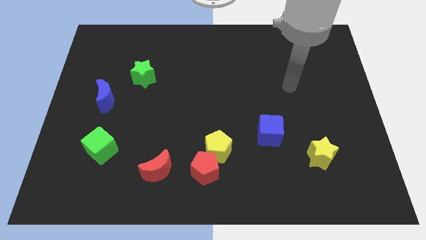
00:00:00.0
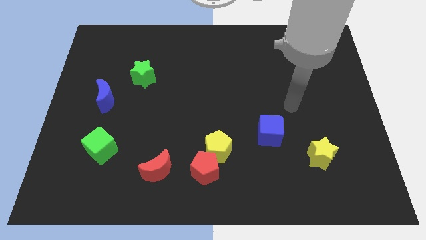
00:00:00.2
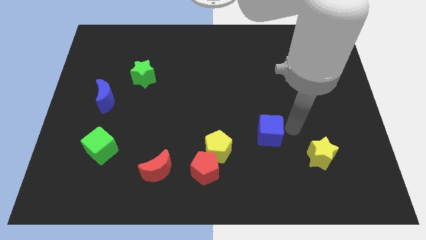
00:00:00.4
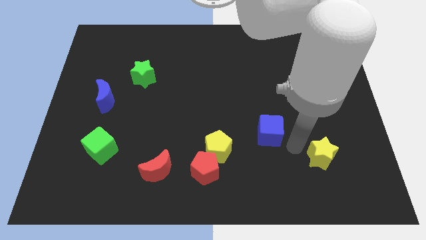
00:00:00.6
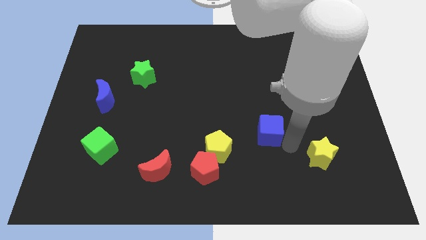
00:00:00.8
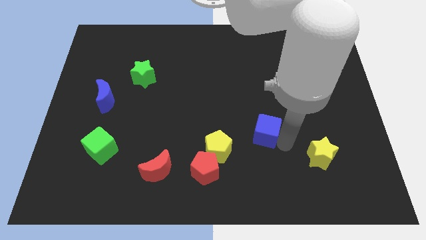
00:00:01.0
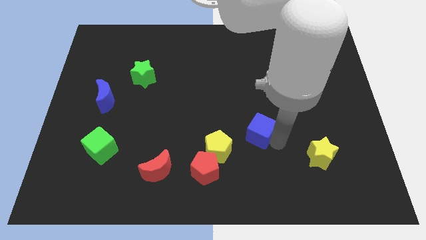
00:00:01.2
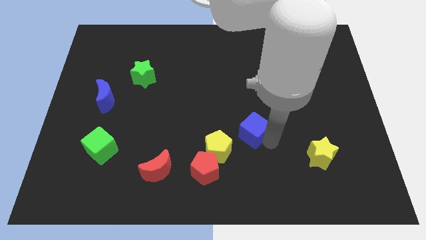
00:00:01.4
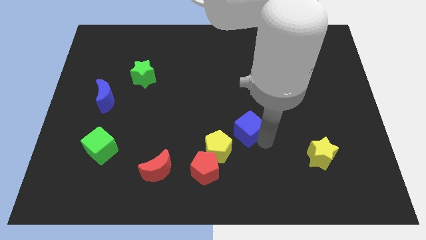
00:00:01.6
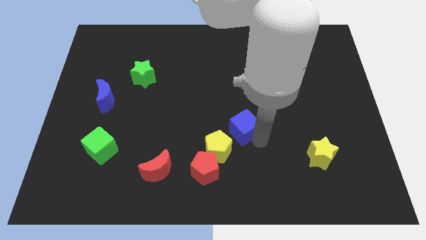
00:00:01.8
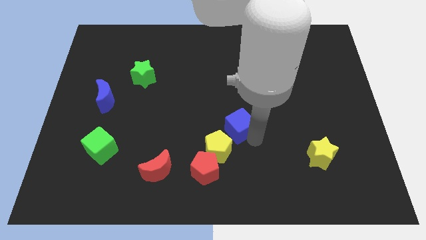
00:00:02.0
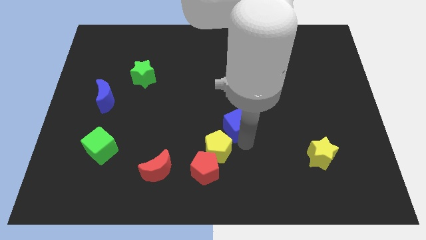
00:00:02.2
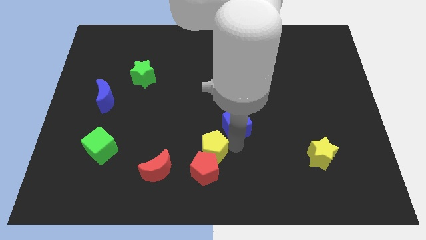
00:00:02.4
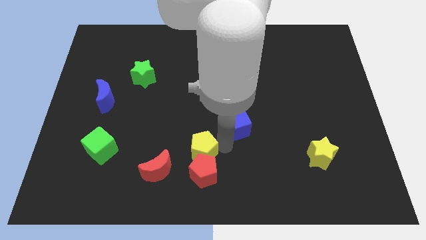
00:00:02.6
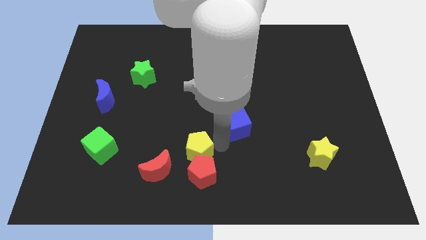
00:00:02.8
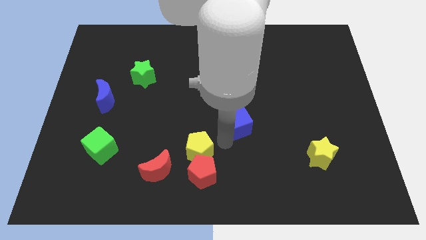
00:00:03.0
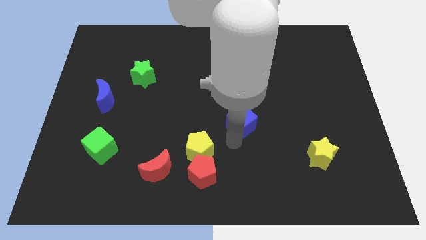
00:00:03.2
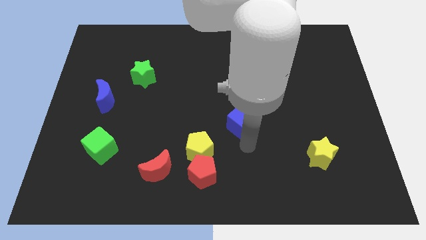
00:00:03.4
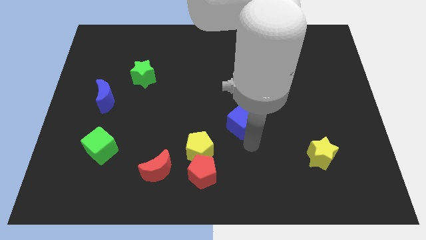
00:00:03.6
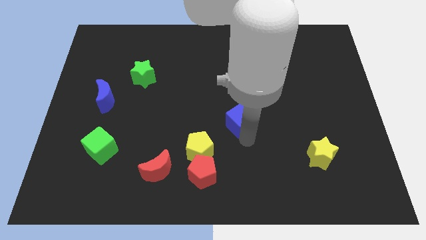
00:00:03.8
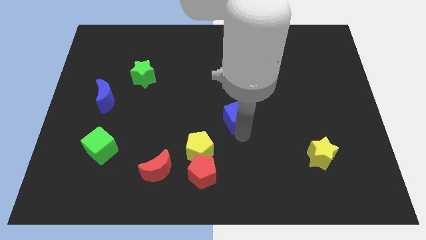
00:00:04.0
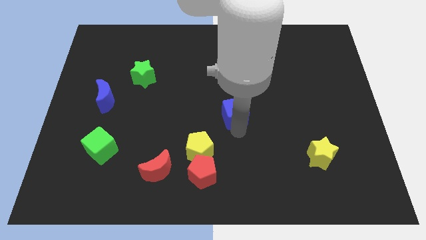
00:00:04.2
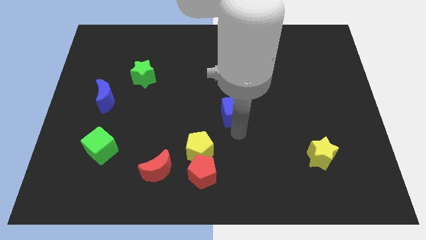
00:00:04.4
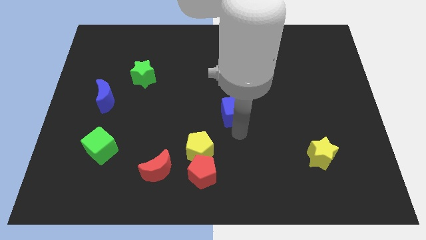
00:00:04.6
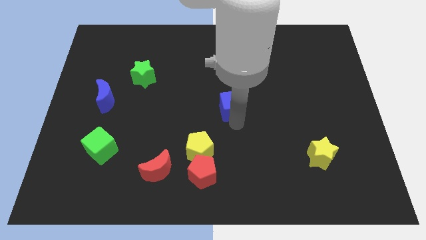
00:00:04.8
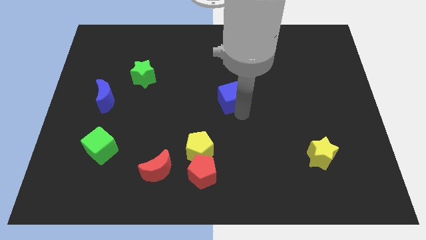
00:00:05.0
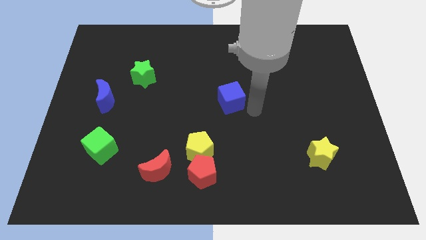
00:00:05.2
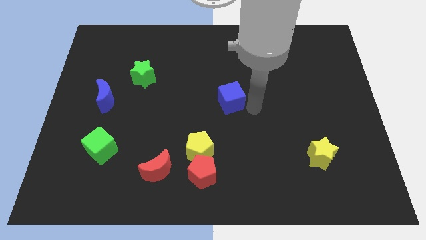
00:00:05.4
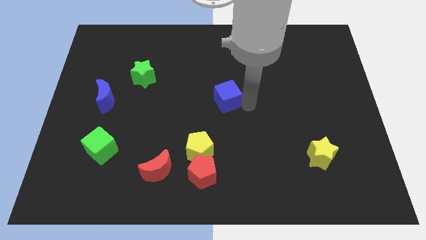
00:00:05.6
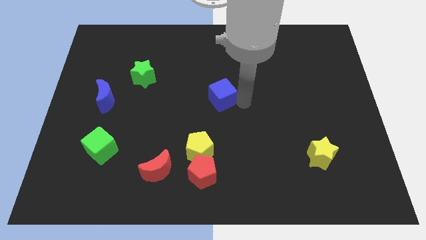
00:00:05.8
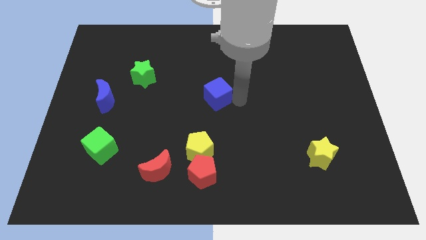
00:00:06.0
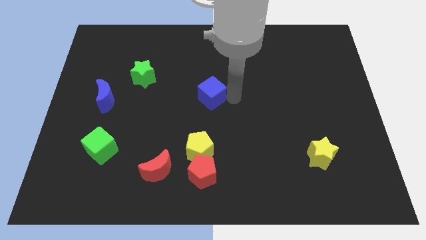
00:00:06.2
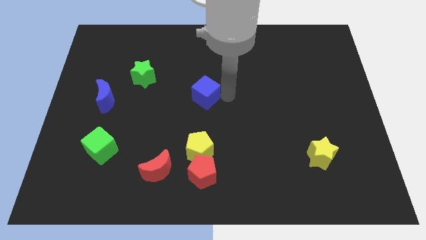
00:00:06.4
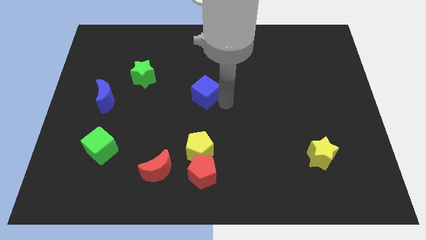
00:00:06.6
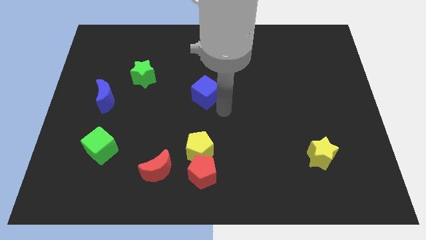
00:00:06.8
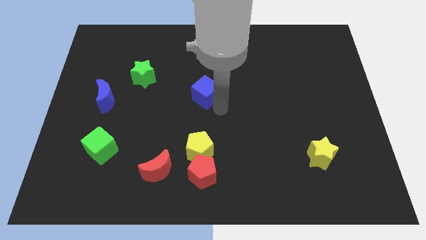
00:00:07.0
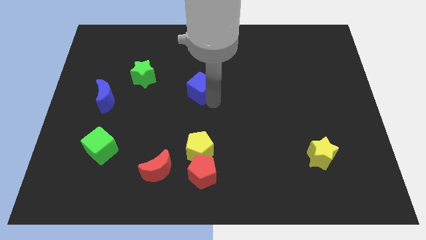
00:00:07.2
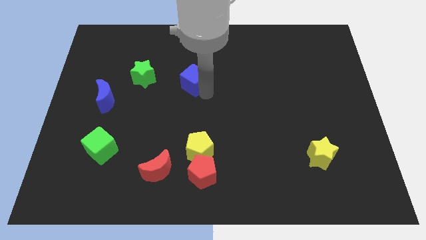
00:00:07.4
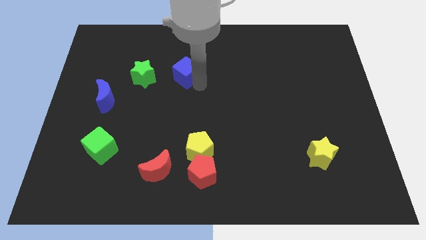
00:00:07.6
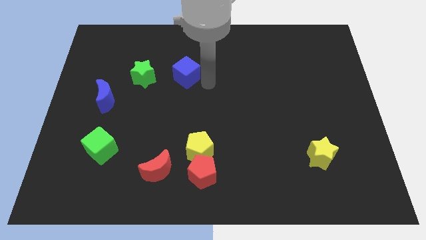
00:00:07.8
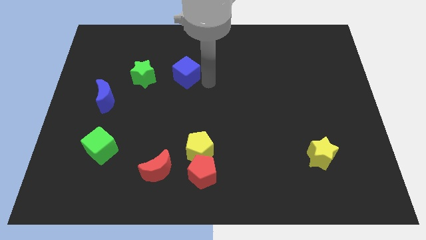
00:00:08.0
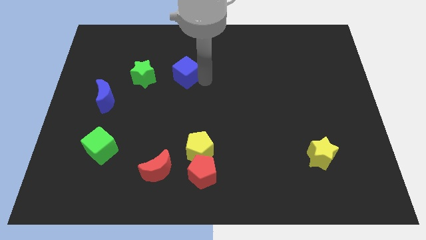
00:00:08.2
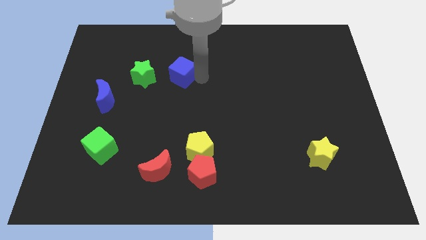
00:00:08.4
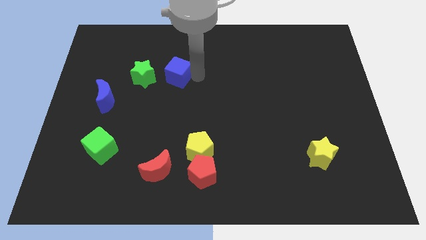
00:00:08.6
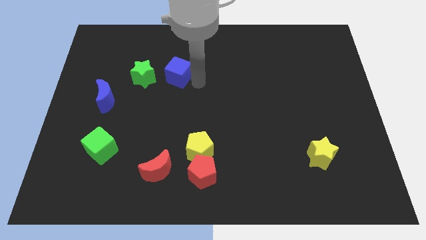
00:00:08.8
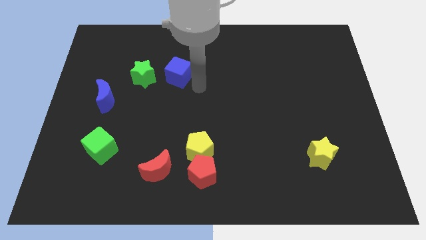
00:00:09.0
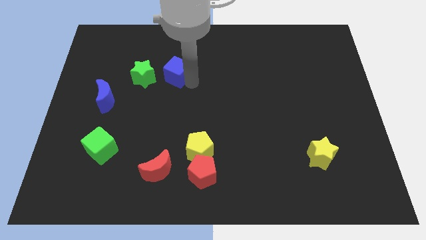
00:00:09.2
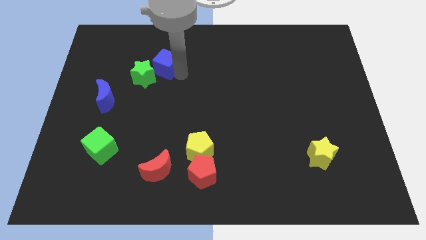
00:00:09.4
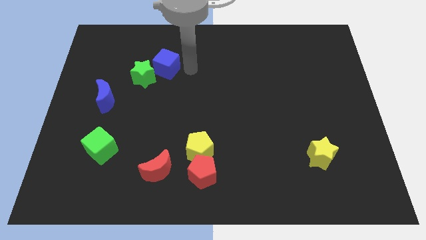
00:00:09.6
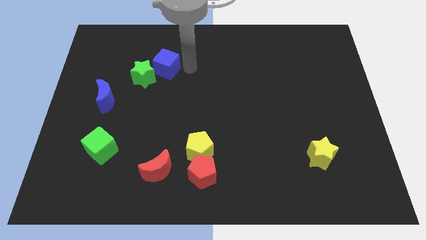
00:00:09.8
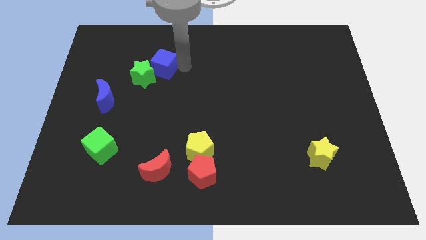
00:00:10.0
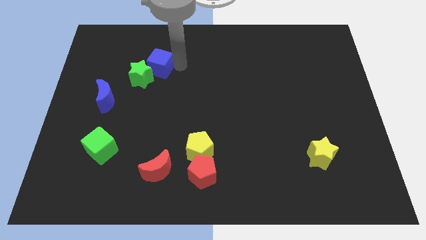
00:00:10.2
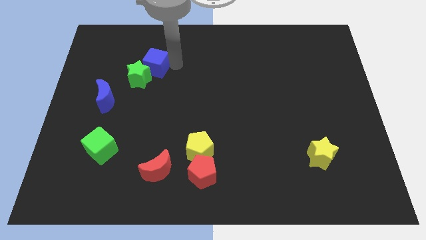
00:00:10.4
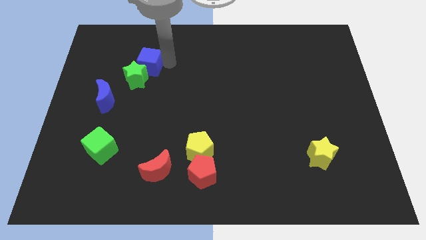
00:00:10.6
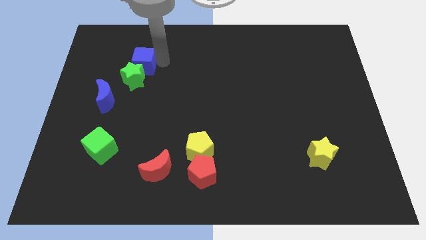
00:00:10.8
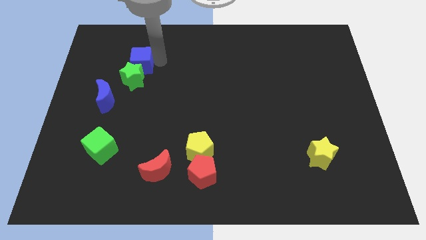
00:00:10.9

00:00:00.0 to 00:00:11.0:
put the blue cube to the top left of the green star
